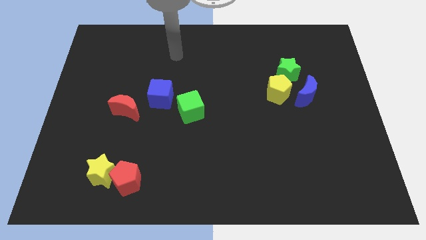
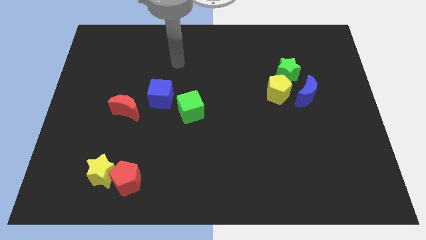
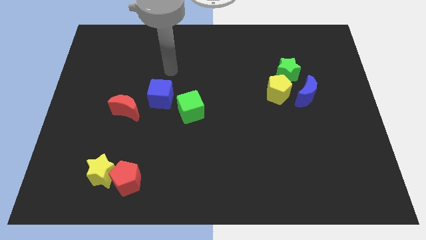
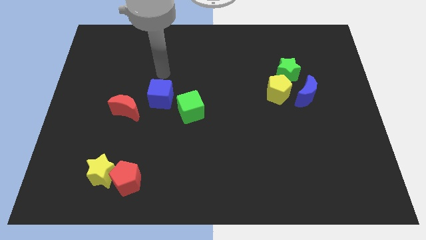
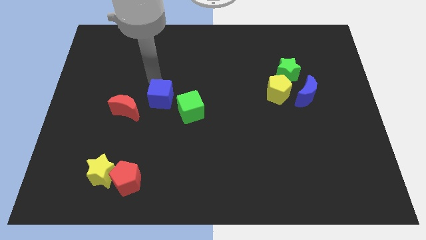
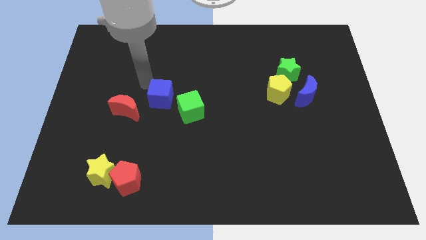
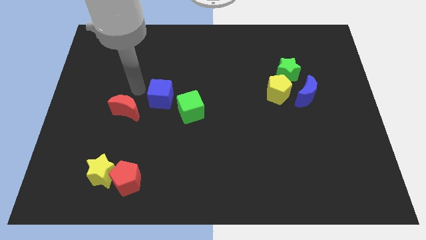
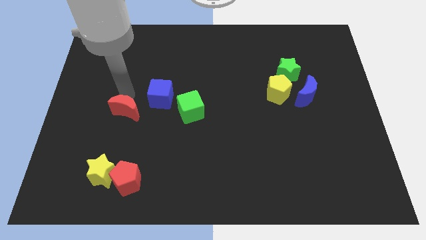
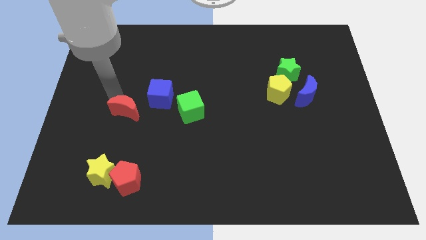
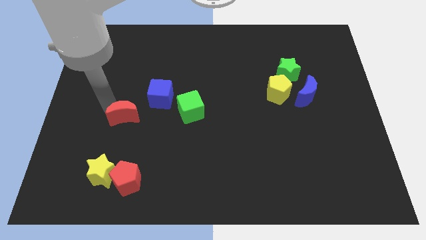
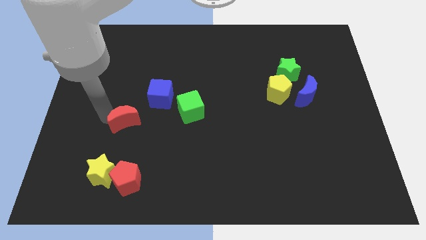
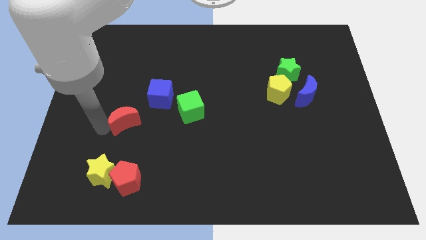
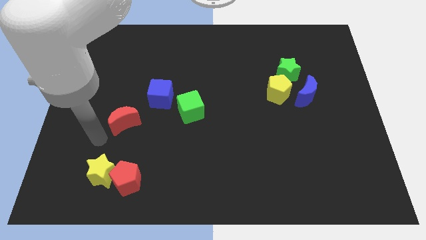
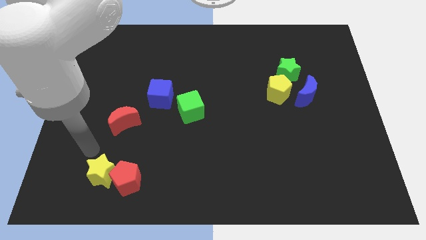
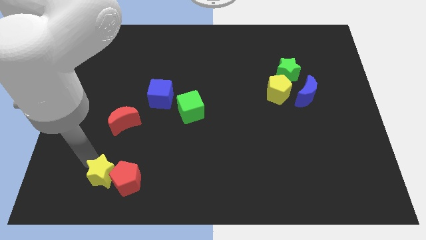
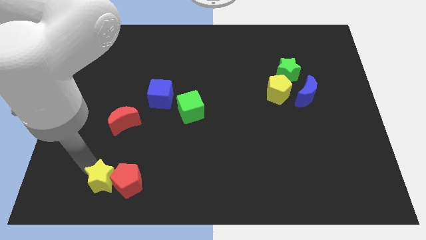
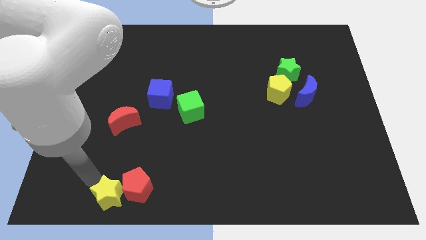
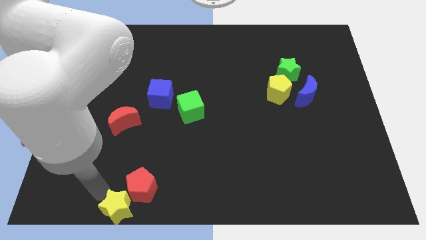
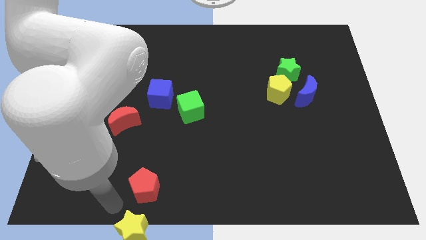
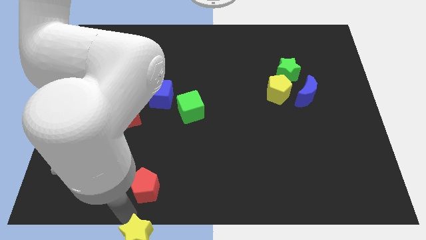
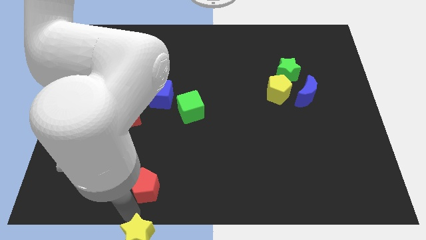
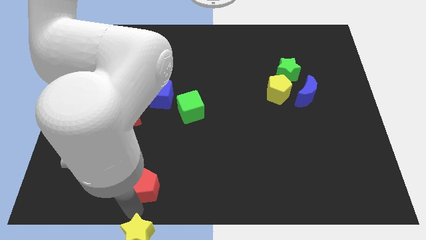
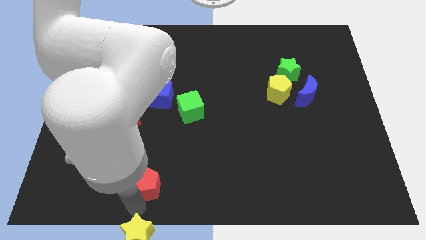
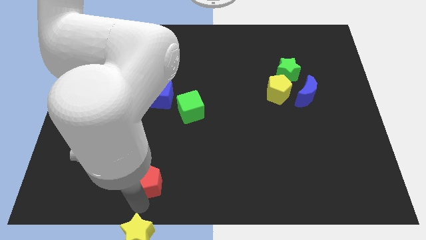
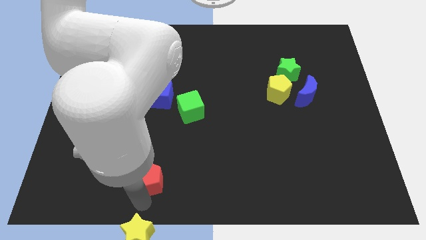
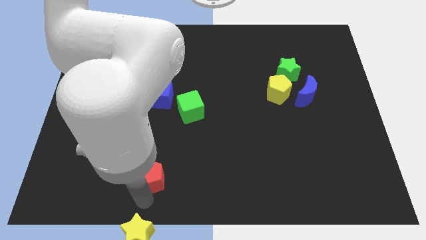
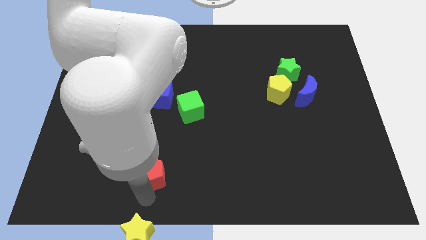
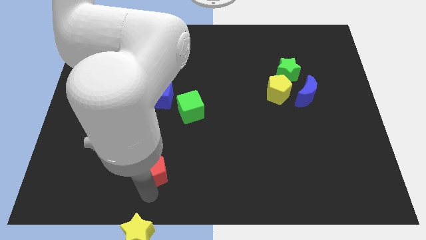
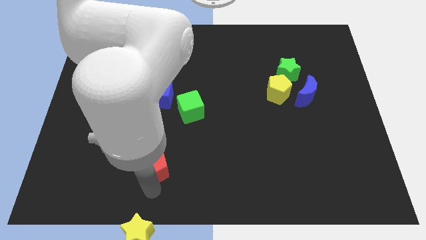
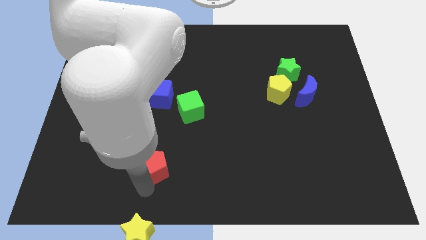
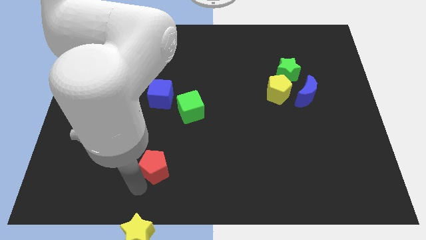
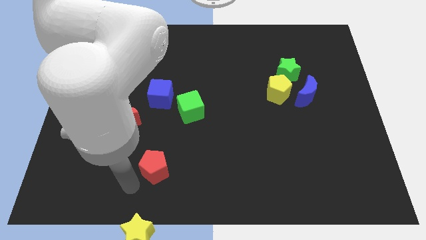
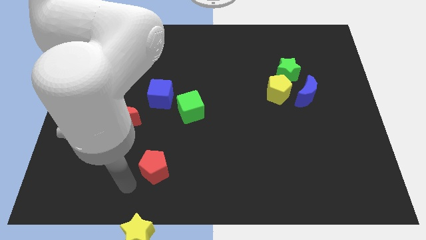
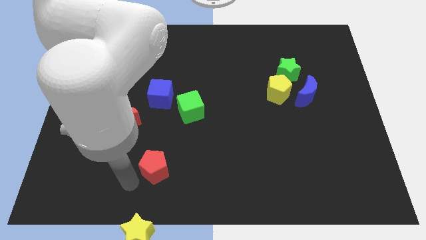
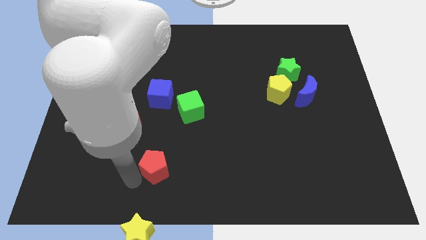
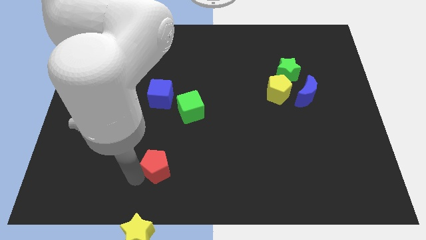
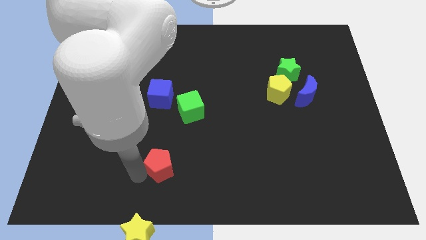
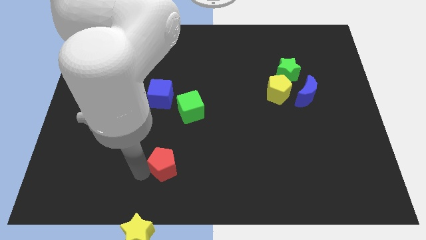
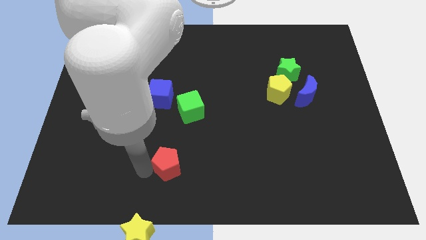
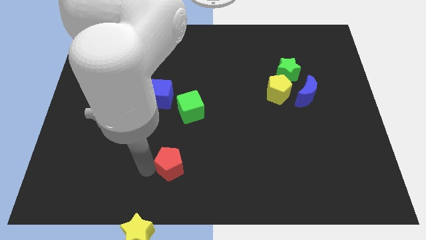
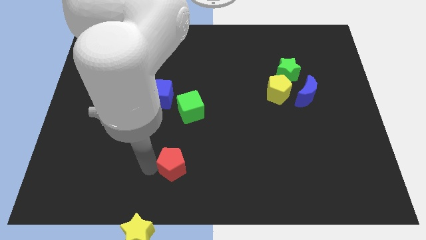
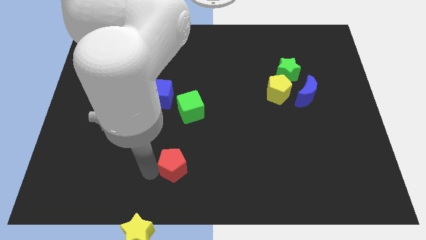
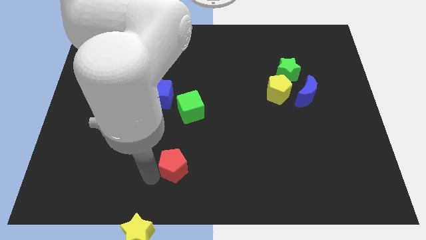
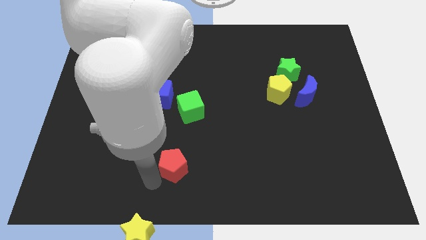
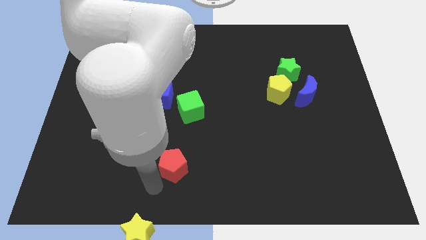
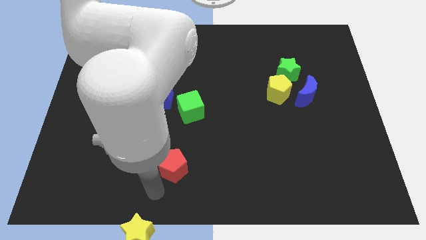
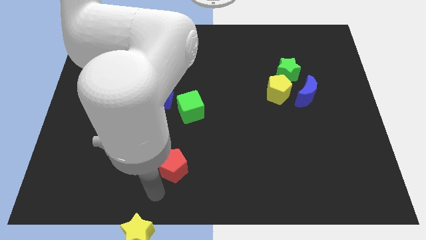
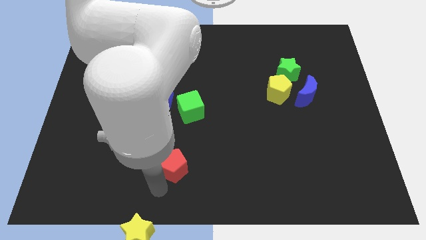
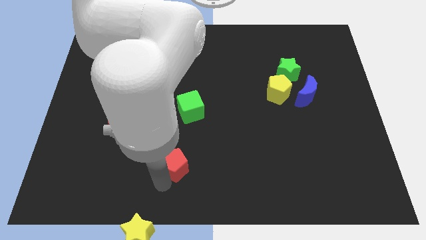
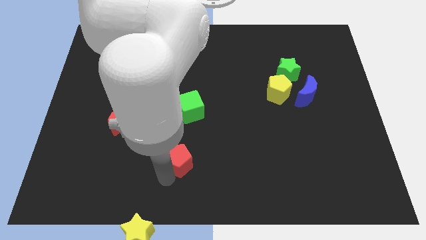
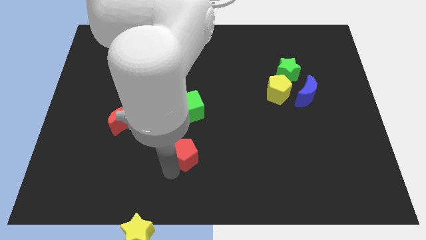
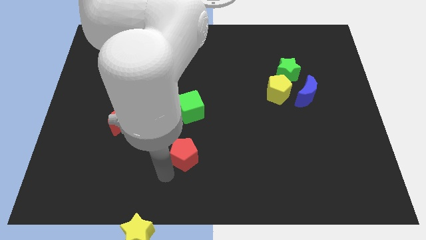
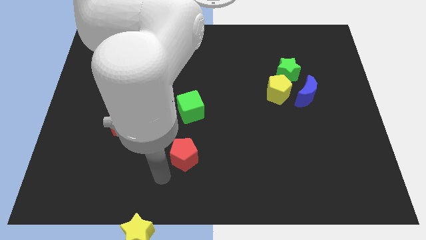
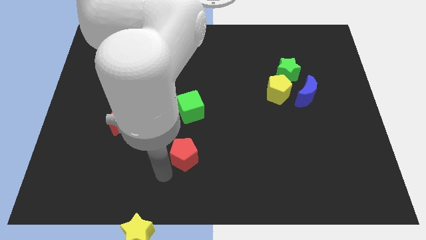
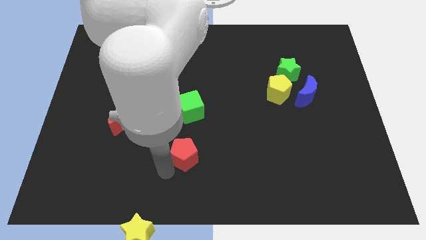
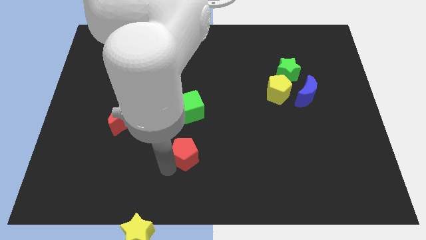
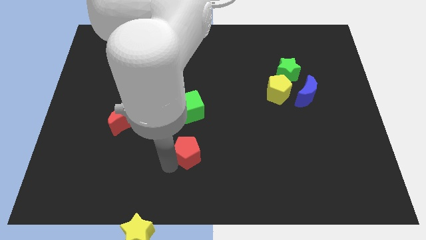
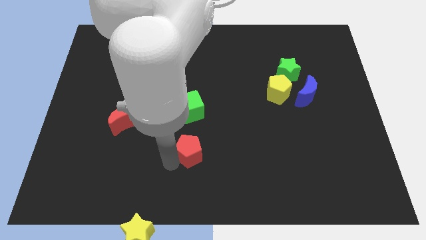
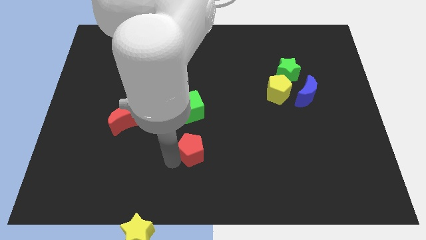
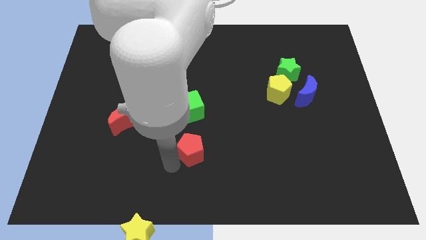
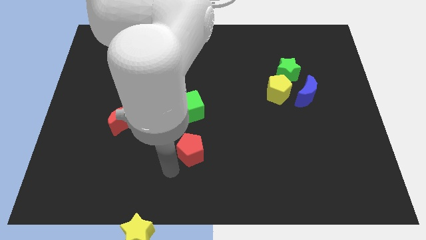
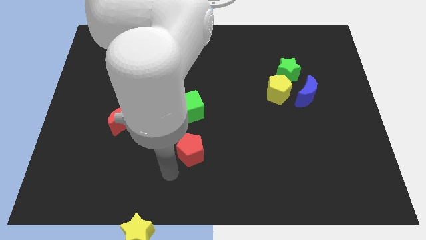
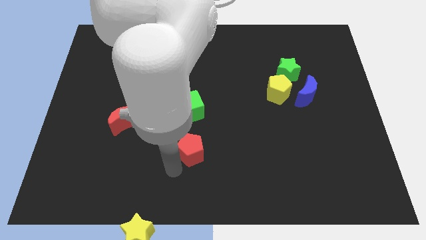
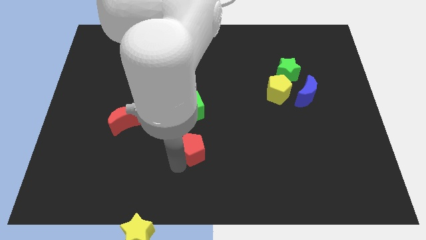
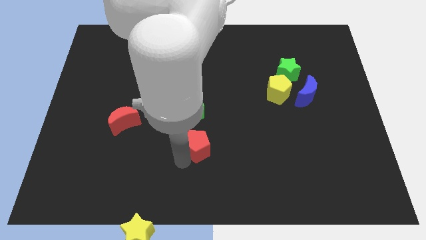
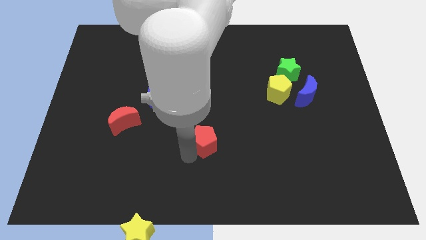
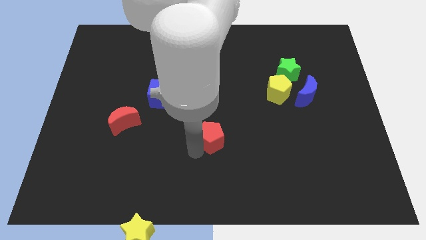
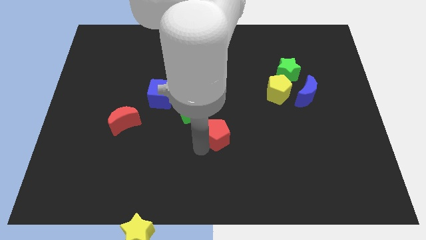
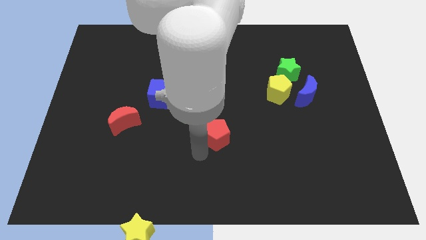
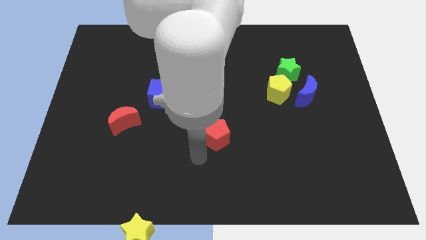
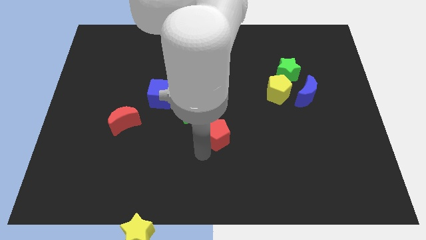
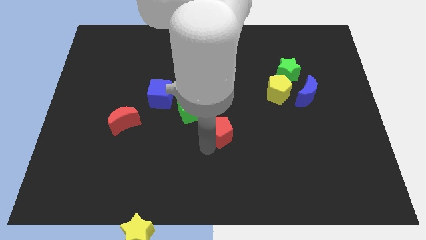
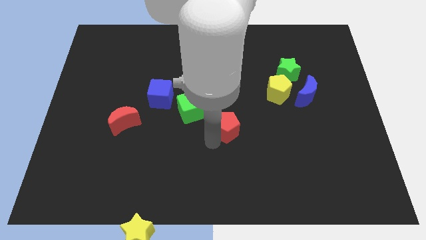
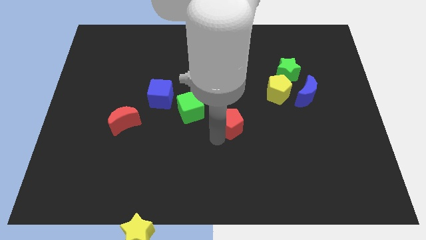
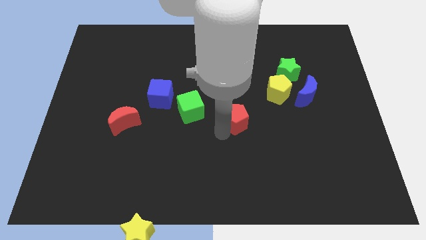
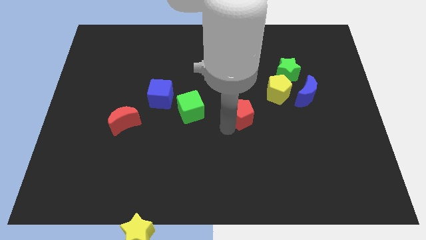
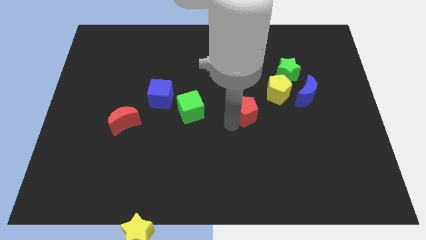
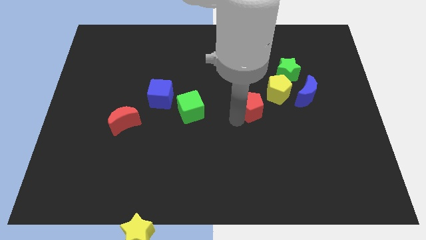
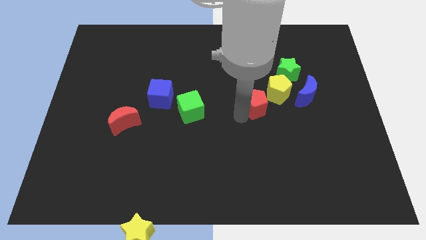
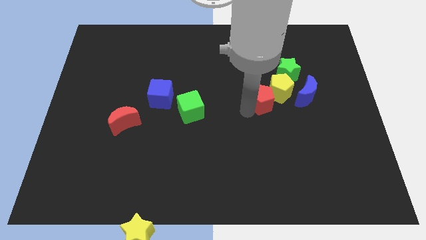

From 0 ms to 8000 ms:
put the red pentagon close to the yellow pentagon

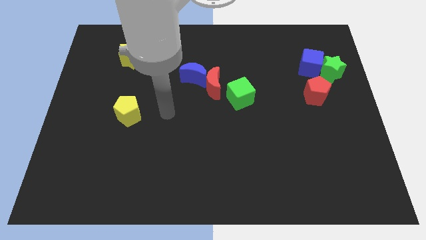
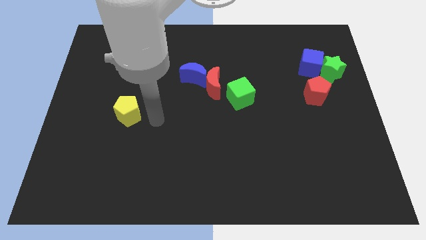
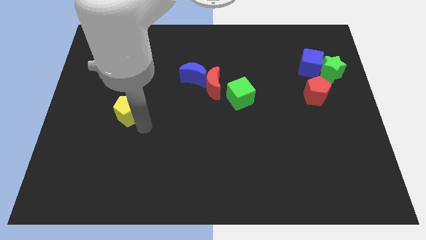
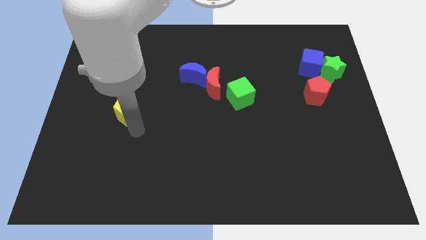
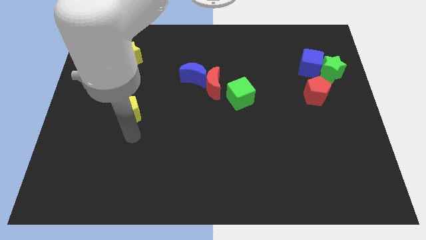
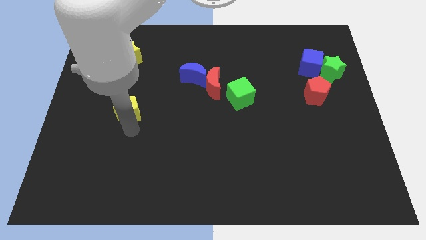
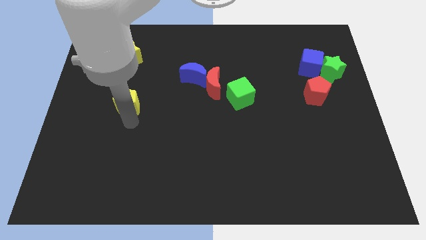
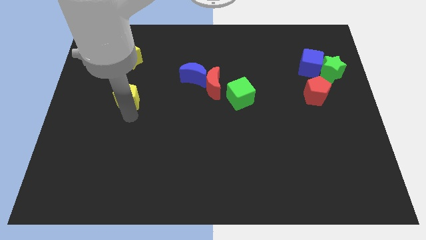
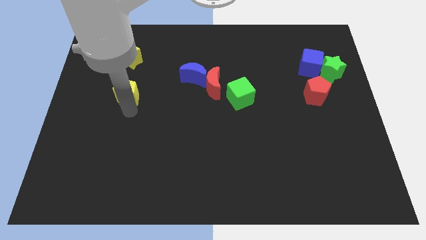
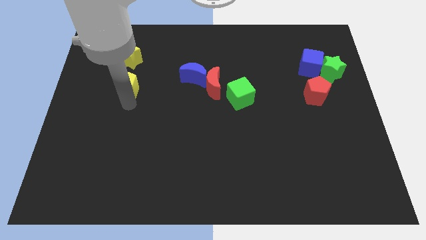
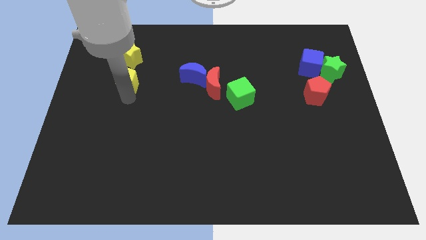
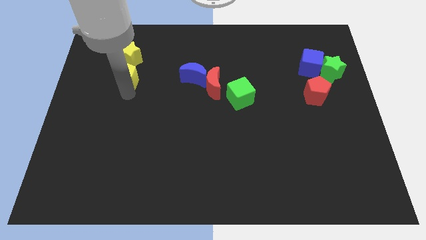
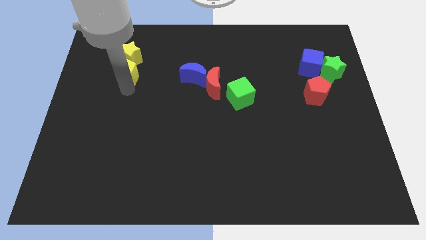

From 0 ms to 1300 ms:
move the yellow pentagon close to the yellow star
